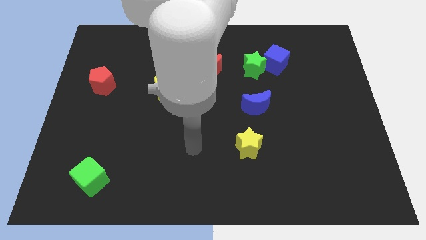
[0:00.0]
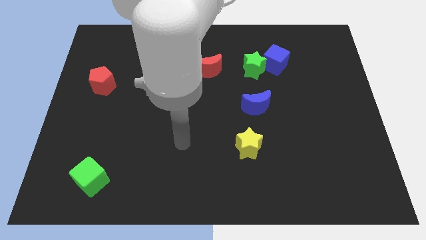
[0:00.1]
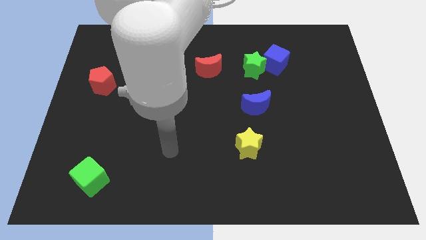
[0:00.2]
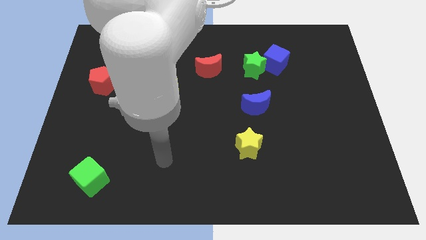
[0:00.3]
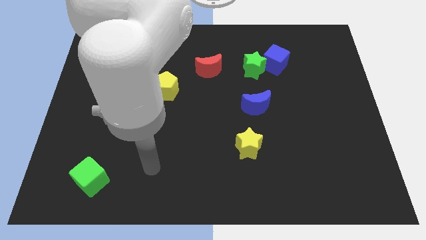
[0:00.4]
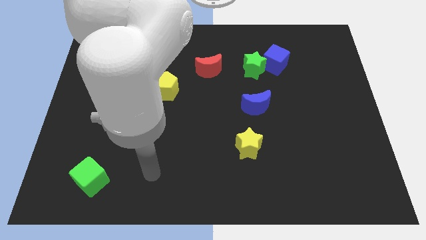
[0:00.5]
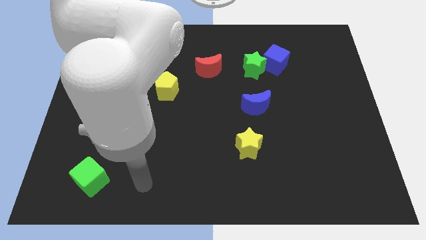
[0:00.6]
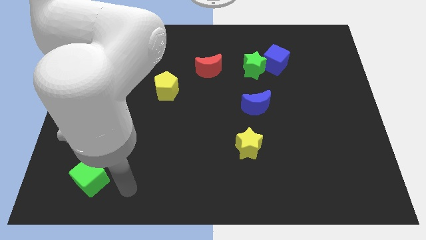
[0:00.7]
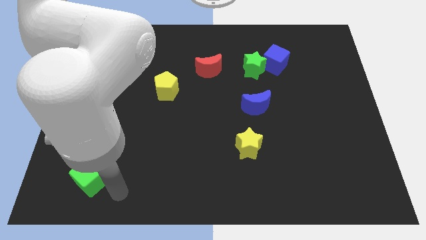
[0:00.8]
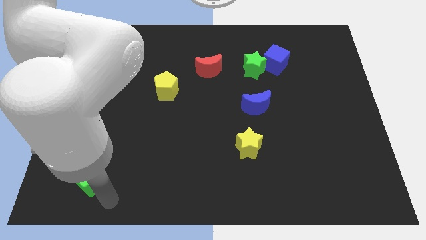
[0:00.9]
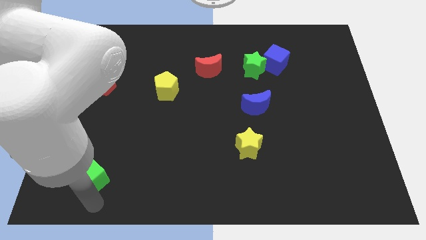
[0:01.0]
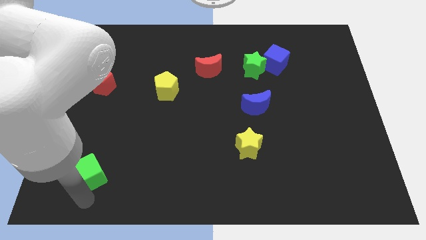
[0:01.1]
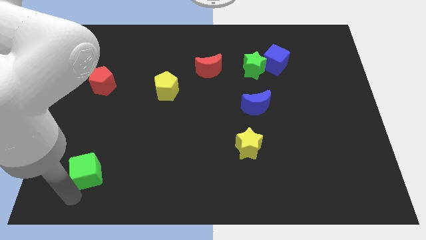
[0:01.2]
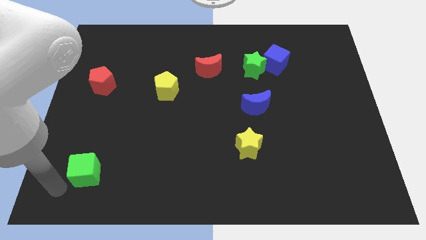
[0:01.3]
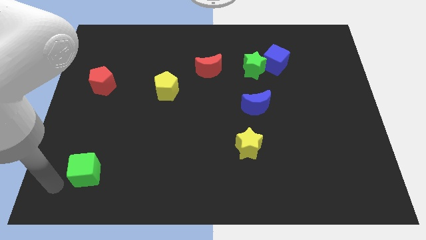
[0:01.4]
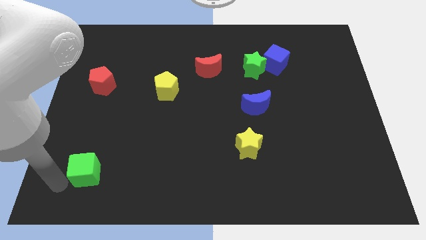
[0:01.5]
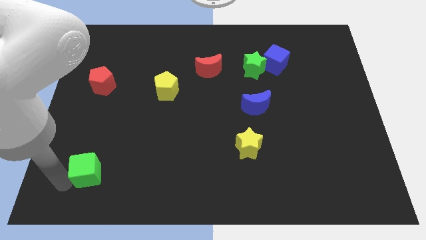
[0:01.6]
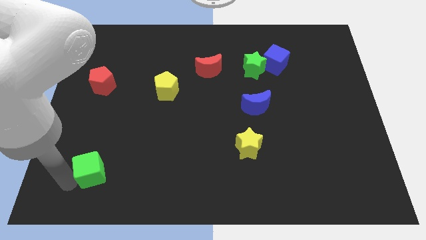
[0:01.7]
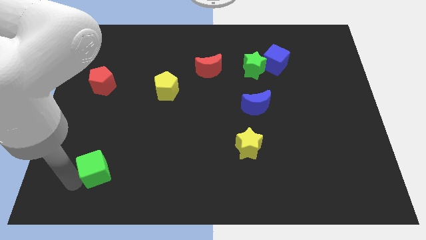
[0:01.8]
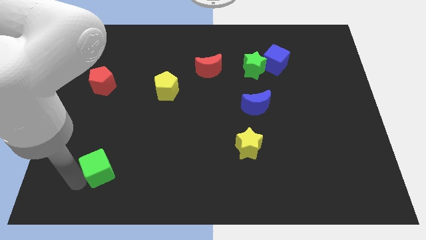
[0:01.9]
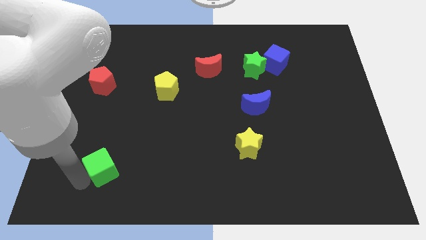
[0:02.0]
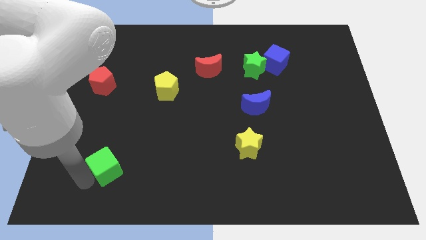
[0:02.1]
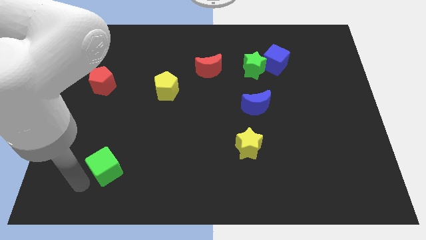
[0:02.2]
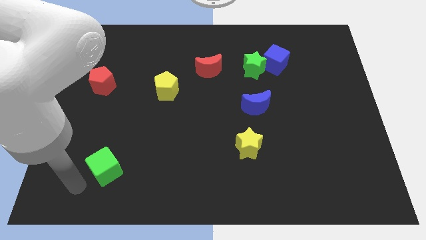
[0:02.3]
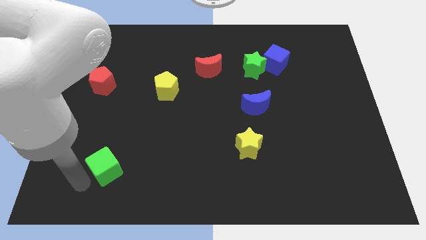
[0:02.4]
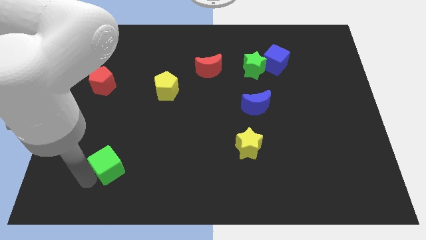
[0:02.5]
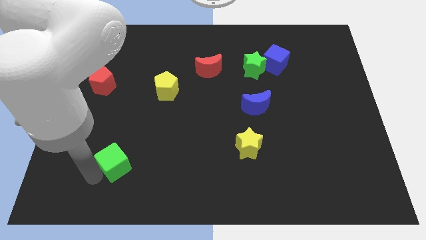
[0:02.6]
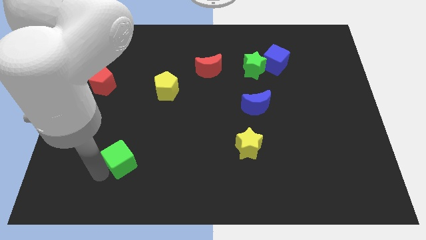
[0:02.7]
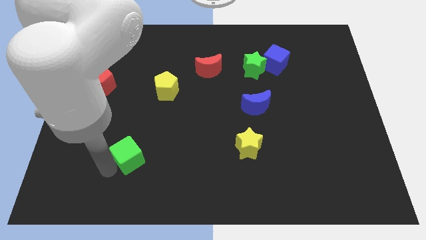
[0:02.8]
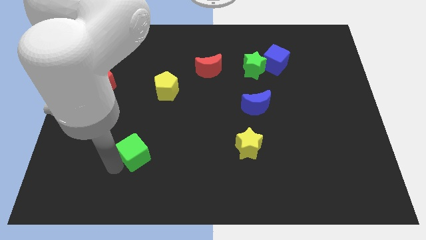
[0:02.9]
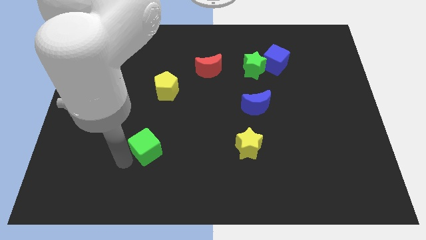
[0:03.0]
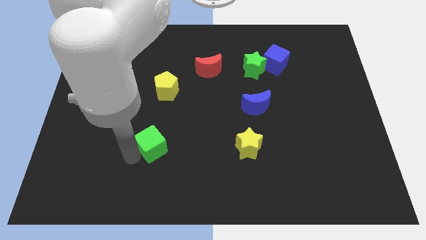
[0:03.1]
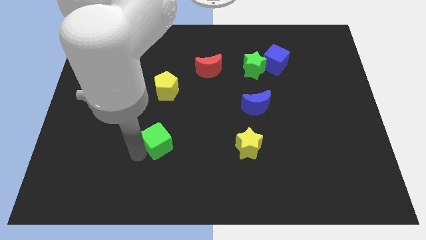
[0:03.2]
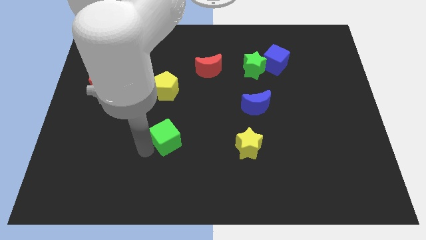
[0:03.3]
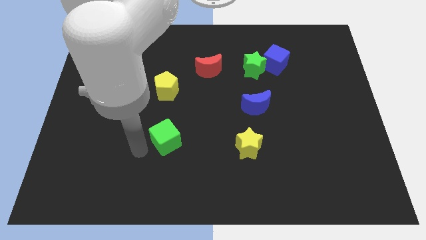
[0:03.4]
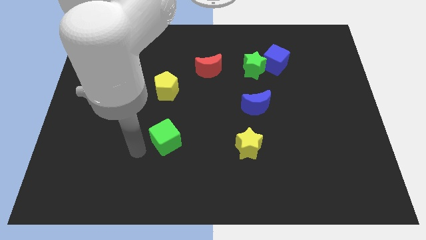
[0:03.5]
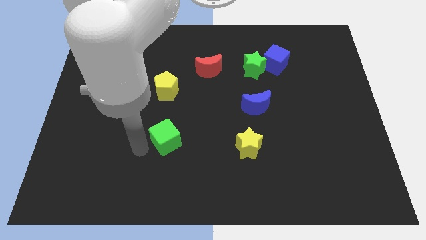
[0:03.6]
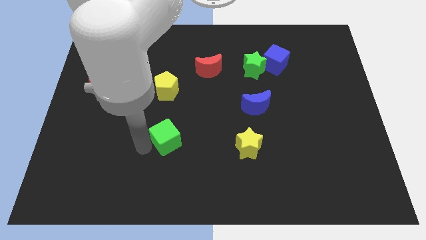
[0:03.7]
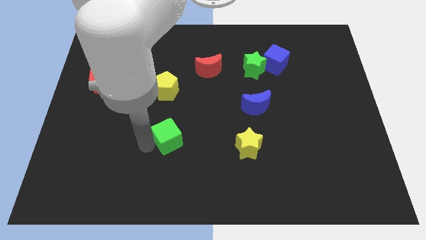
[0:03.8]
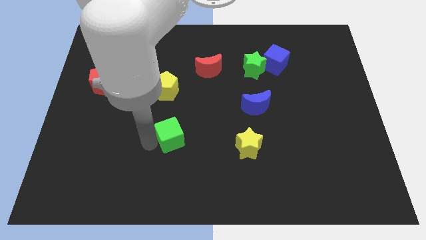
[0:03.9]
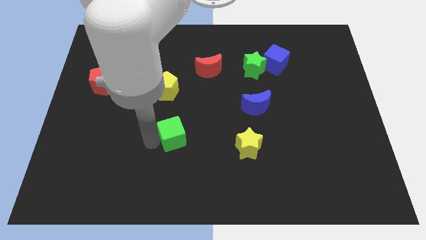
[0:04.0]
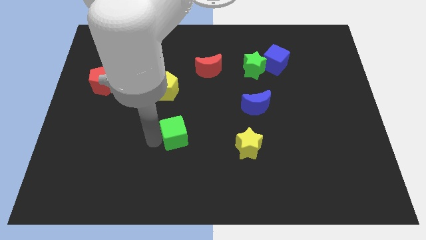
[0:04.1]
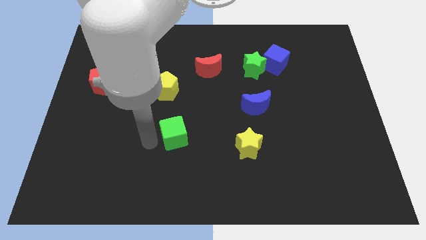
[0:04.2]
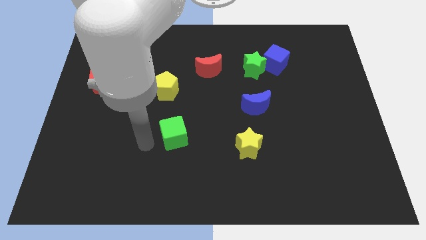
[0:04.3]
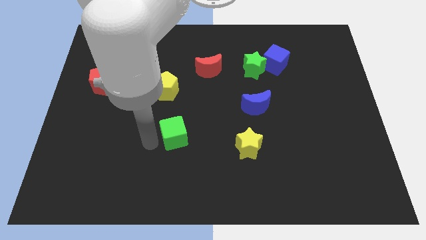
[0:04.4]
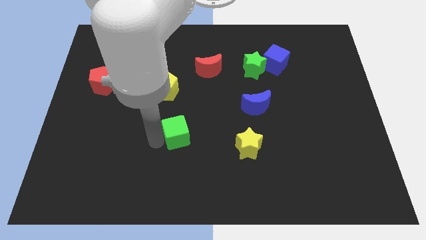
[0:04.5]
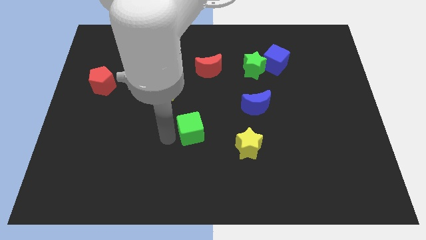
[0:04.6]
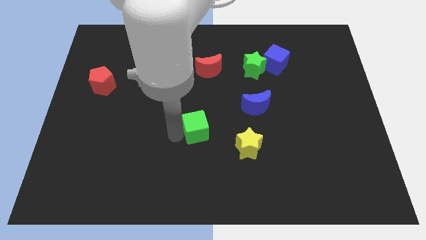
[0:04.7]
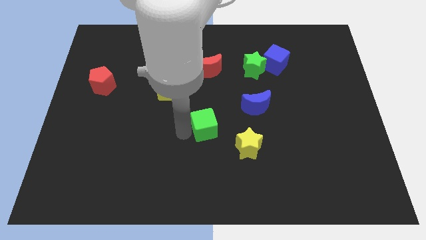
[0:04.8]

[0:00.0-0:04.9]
slide the green cube diagonally up and to the left of the yellow star

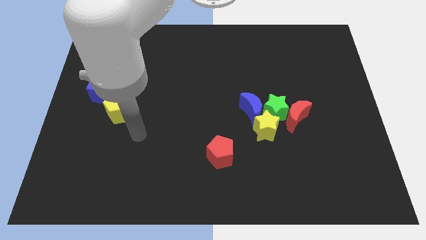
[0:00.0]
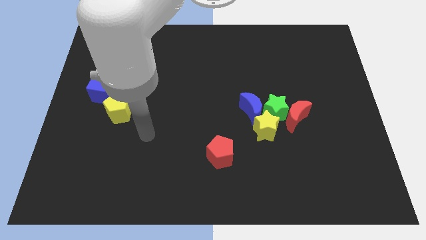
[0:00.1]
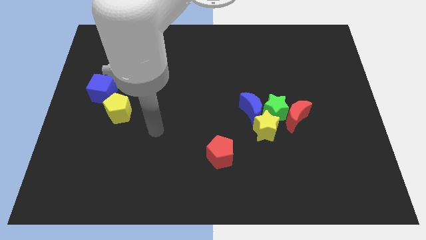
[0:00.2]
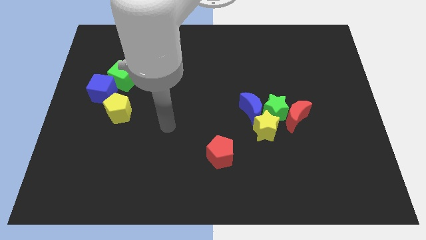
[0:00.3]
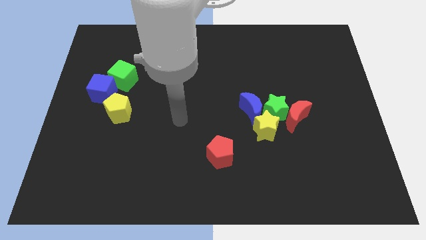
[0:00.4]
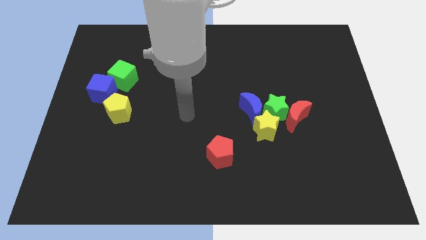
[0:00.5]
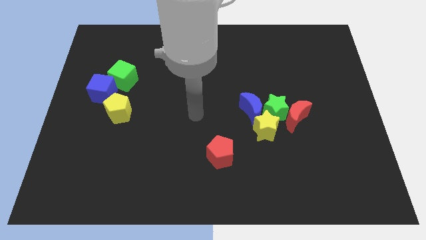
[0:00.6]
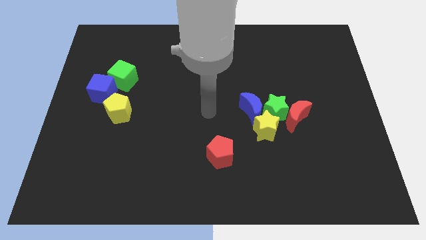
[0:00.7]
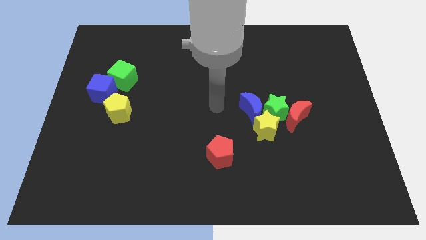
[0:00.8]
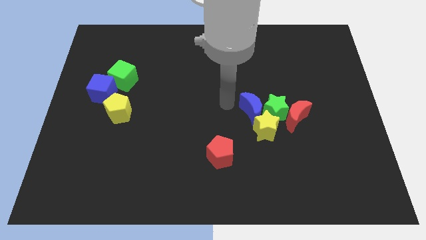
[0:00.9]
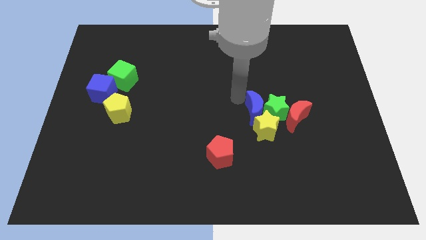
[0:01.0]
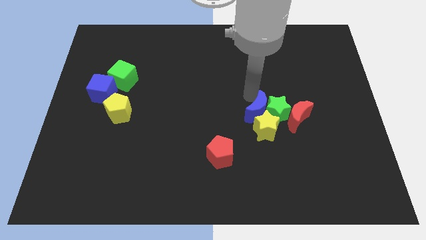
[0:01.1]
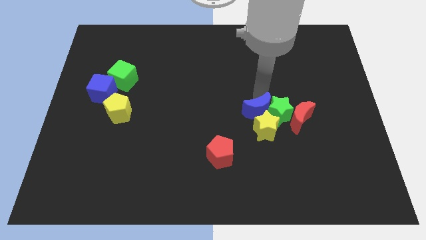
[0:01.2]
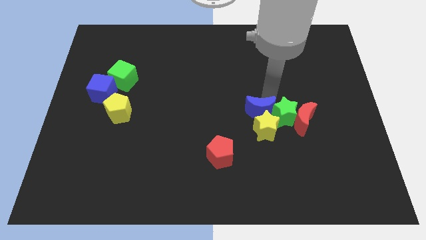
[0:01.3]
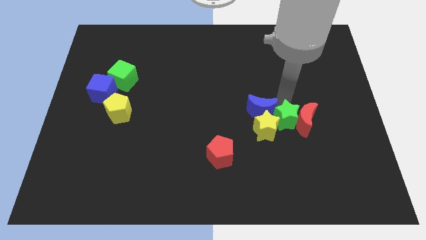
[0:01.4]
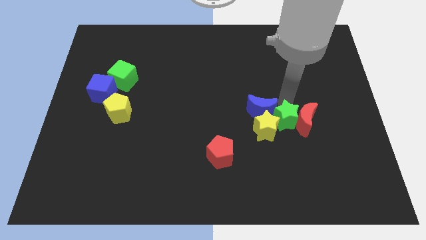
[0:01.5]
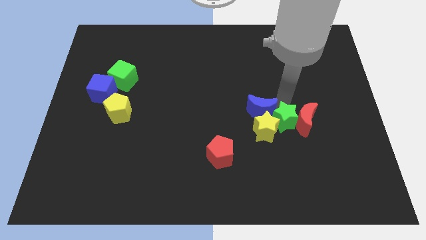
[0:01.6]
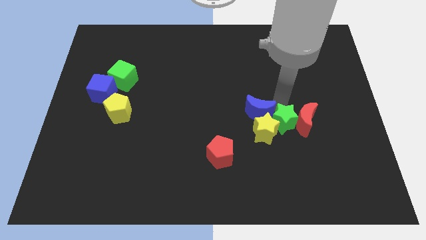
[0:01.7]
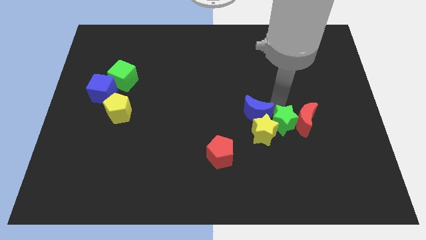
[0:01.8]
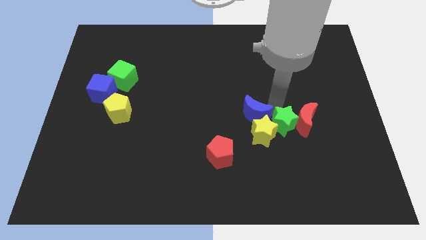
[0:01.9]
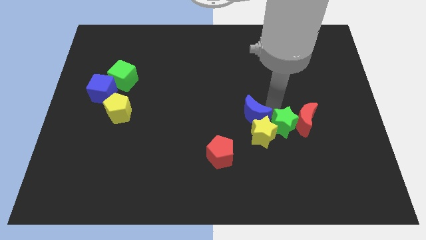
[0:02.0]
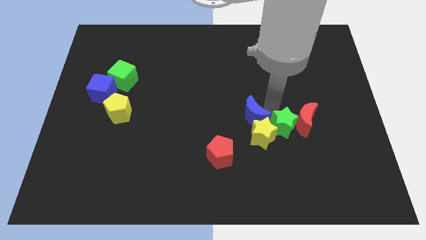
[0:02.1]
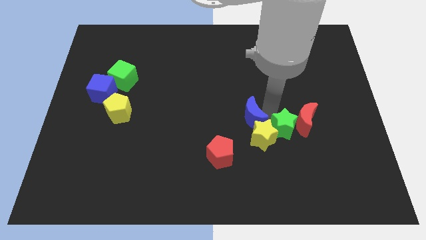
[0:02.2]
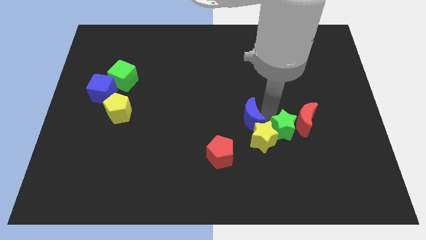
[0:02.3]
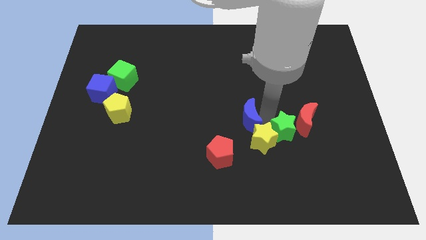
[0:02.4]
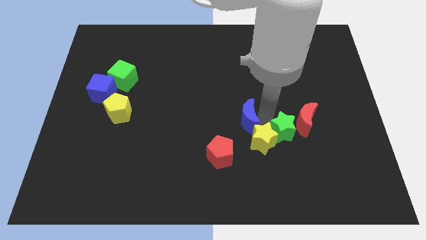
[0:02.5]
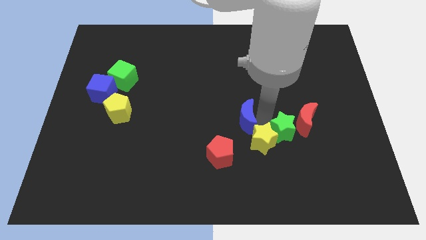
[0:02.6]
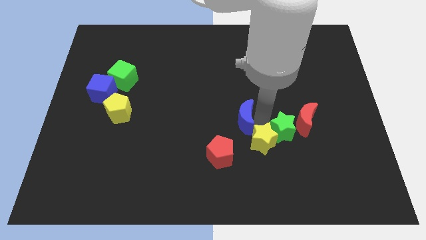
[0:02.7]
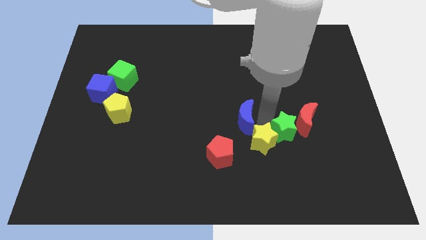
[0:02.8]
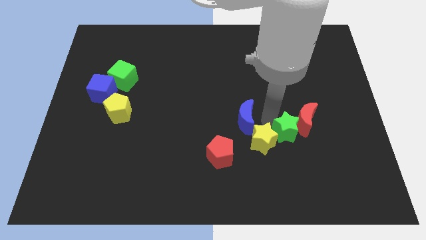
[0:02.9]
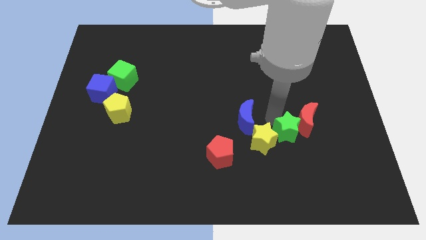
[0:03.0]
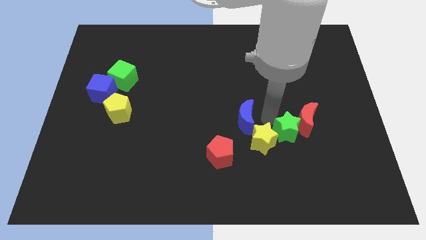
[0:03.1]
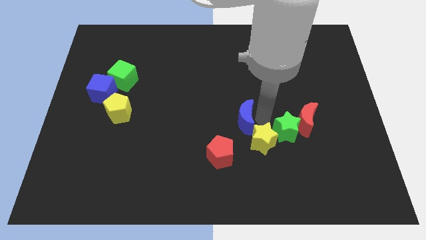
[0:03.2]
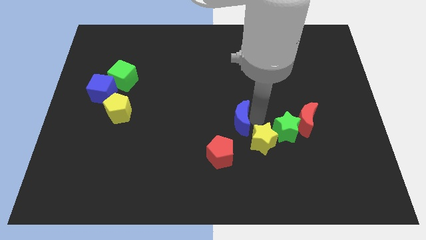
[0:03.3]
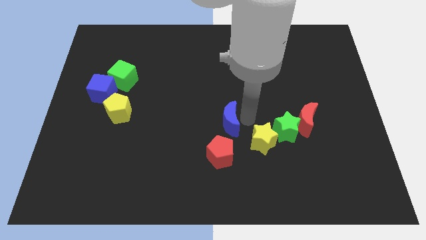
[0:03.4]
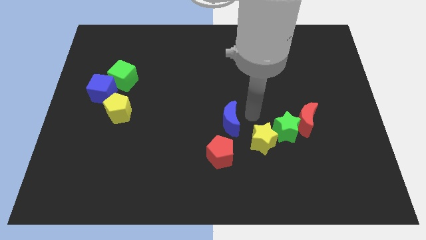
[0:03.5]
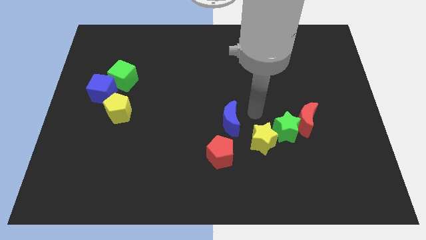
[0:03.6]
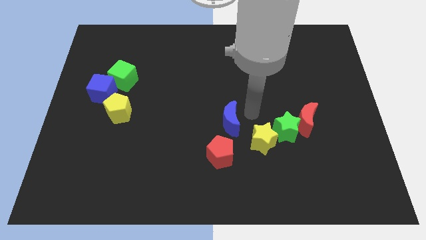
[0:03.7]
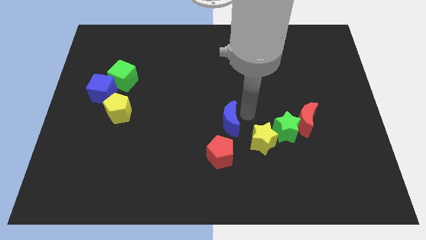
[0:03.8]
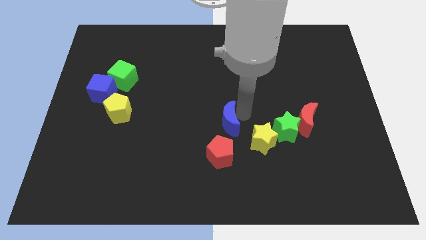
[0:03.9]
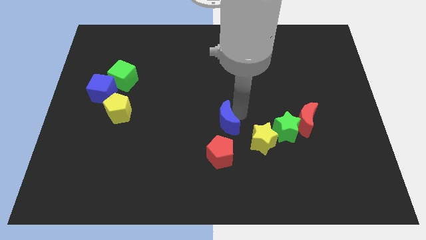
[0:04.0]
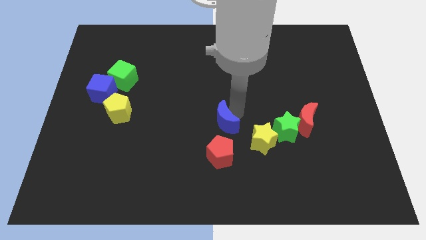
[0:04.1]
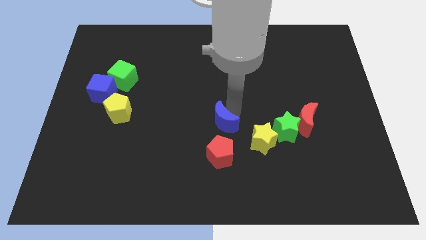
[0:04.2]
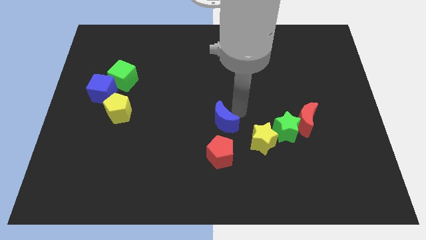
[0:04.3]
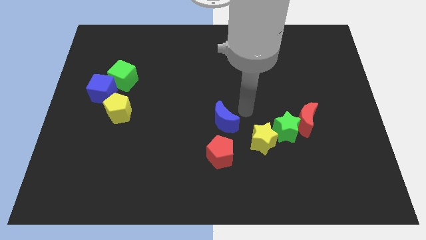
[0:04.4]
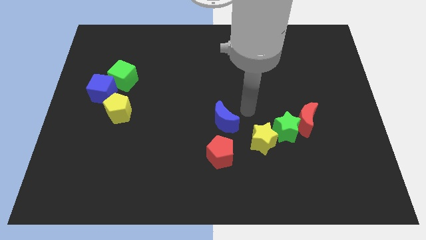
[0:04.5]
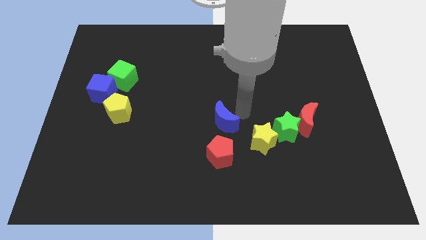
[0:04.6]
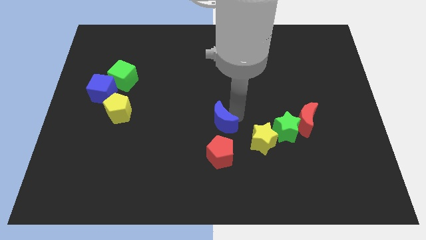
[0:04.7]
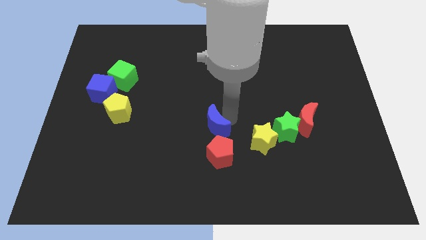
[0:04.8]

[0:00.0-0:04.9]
move the blue moon to the top left side of the red pentagon
